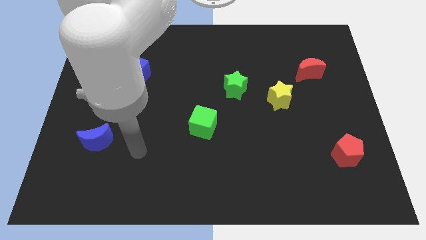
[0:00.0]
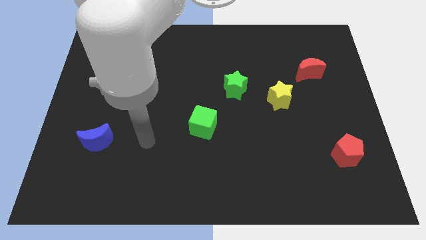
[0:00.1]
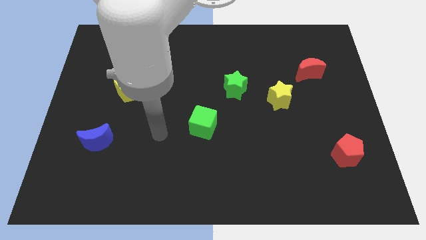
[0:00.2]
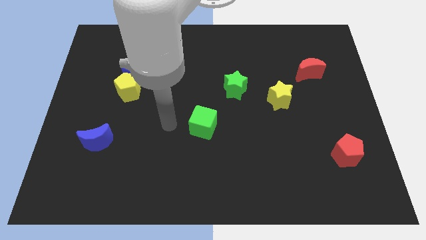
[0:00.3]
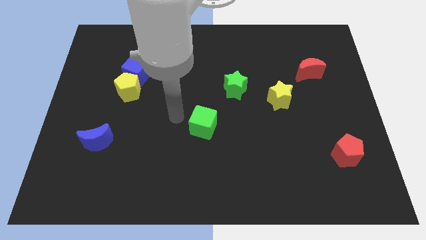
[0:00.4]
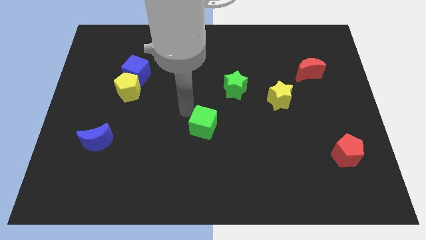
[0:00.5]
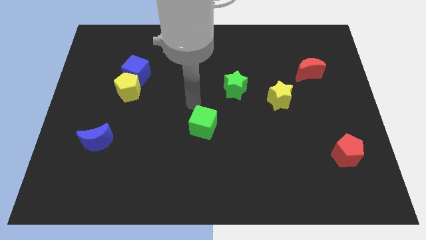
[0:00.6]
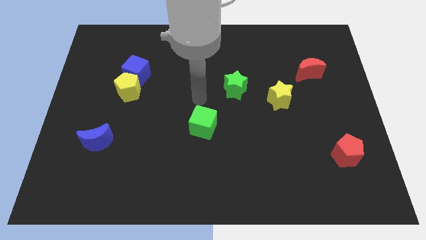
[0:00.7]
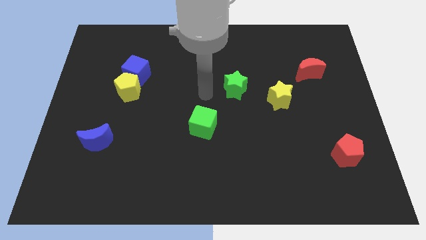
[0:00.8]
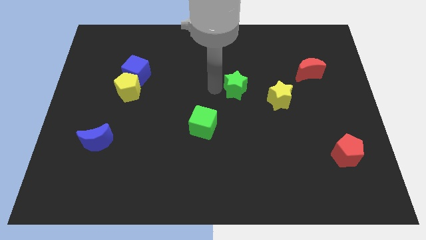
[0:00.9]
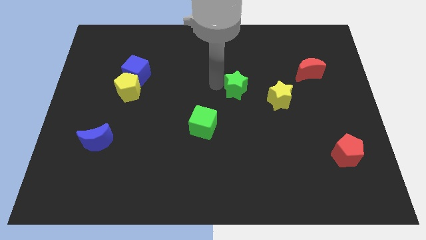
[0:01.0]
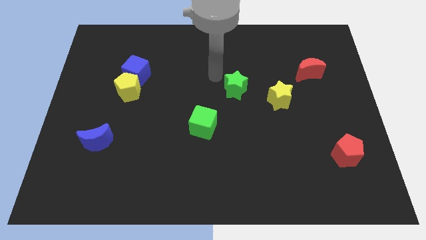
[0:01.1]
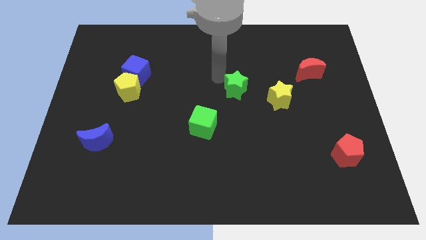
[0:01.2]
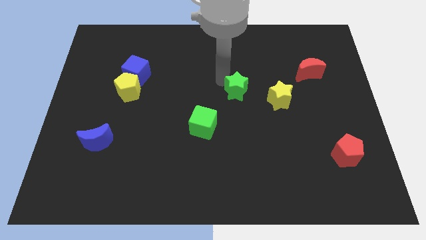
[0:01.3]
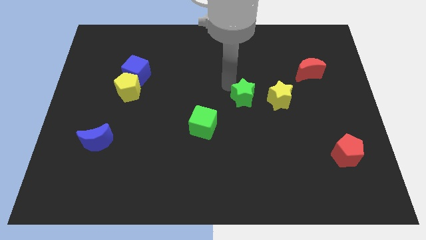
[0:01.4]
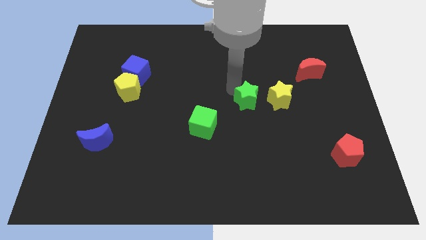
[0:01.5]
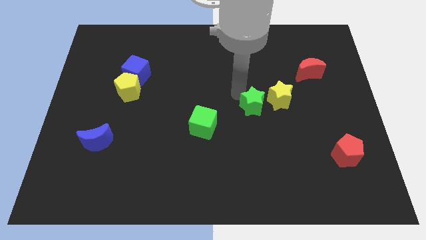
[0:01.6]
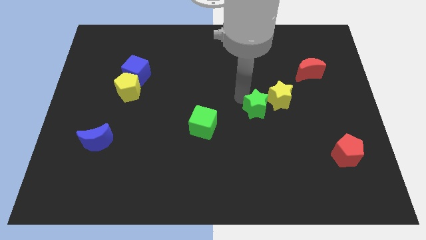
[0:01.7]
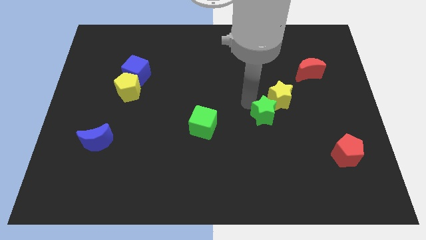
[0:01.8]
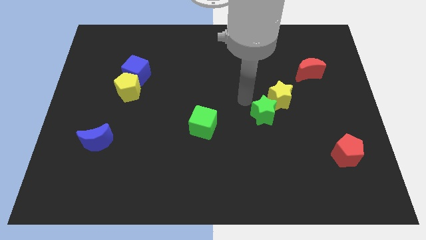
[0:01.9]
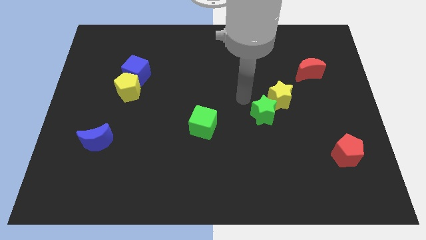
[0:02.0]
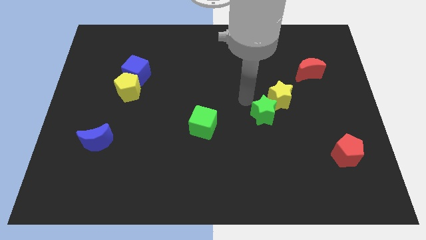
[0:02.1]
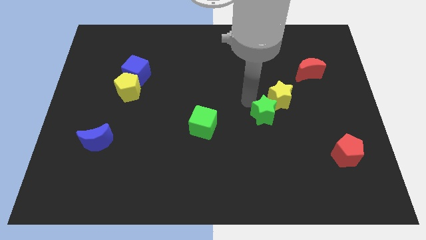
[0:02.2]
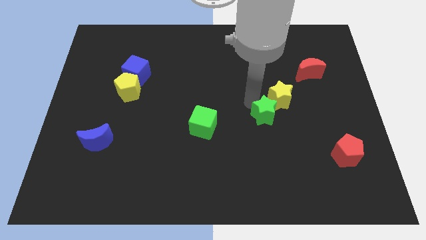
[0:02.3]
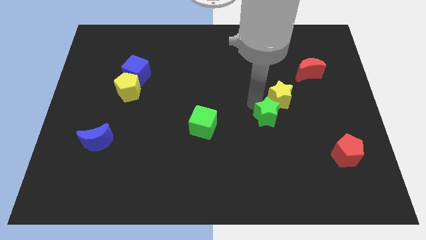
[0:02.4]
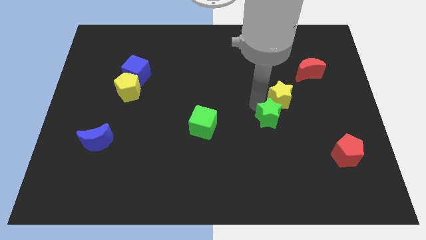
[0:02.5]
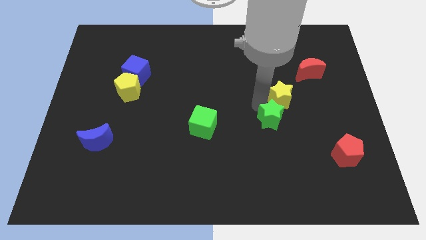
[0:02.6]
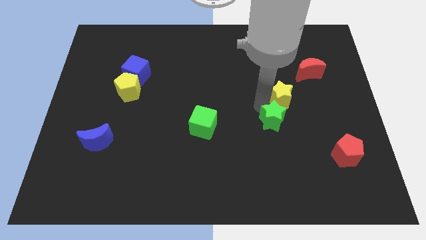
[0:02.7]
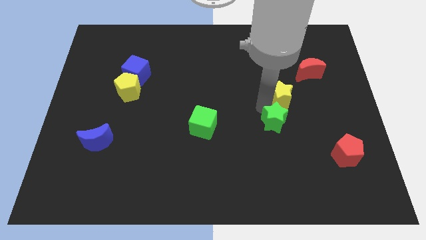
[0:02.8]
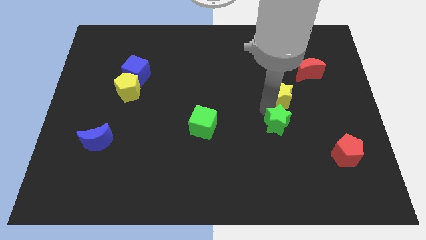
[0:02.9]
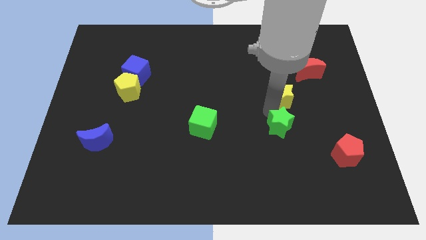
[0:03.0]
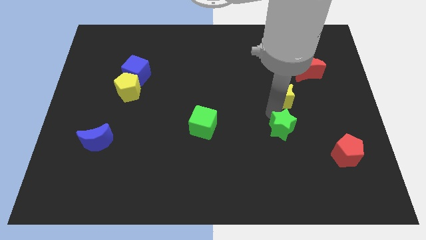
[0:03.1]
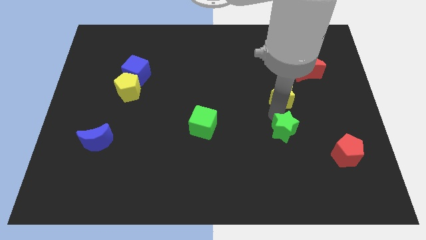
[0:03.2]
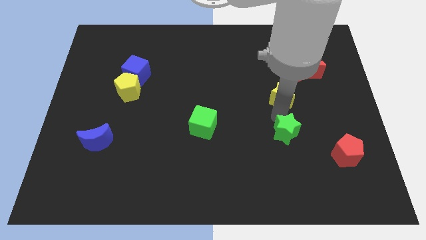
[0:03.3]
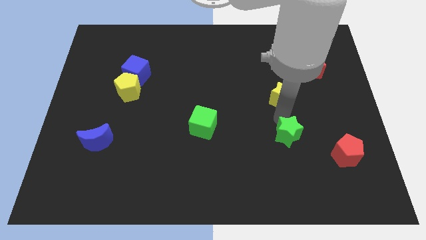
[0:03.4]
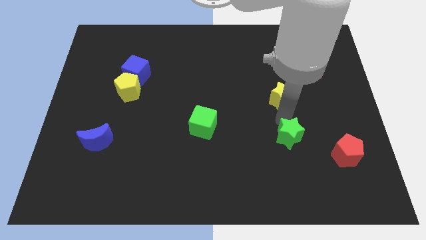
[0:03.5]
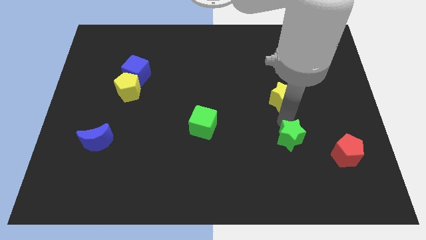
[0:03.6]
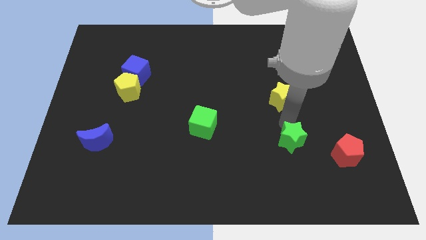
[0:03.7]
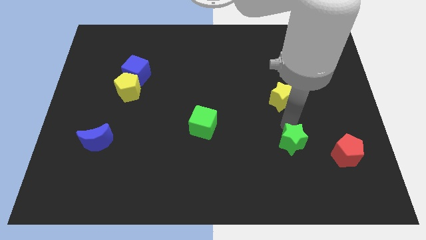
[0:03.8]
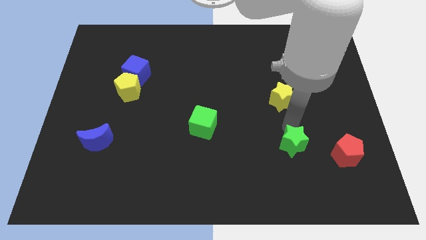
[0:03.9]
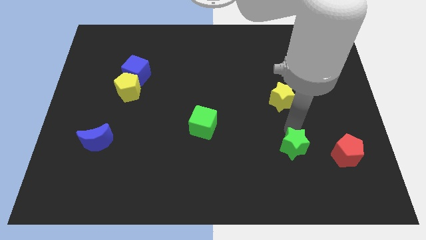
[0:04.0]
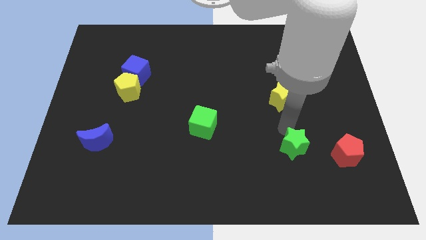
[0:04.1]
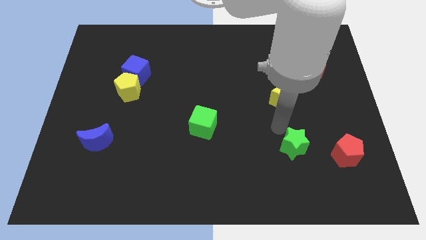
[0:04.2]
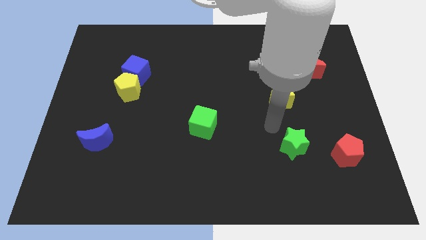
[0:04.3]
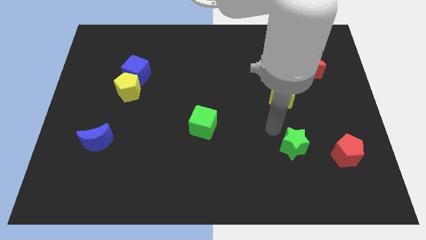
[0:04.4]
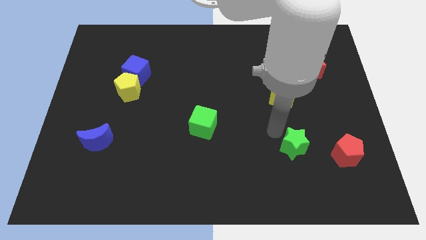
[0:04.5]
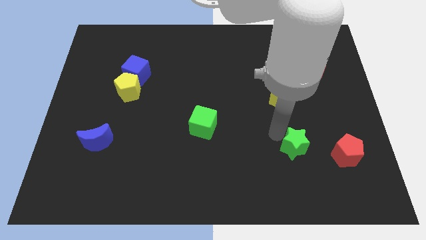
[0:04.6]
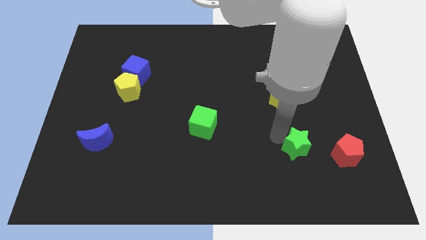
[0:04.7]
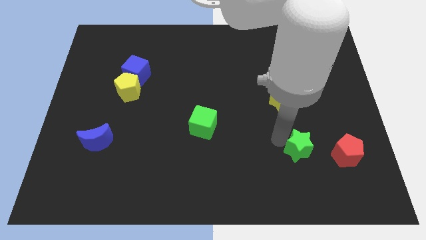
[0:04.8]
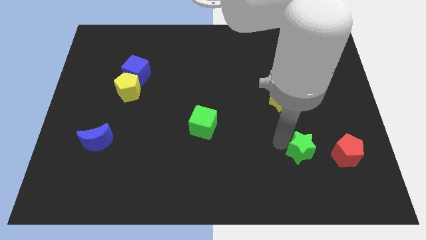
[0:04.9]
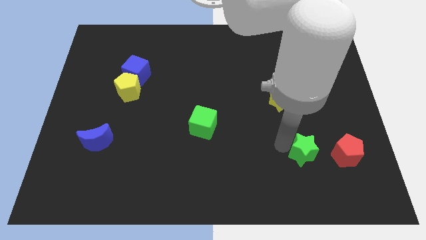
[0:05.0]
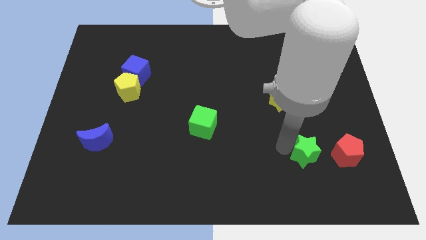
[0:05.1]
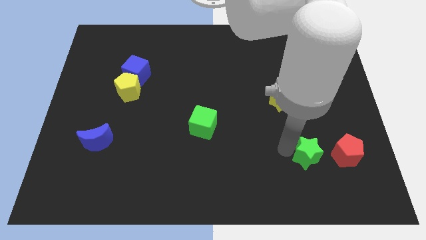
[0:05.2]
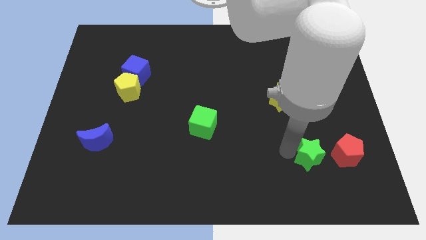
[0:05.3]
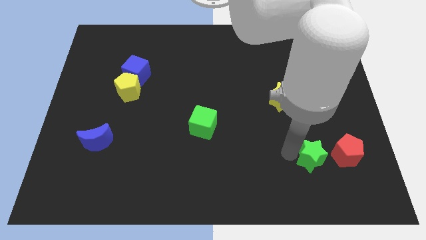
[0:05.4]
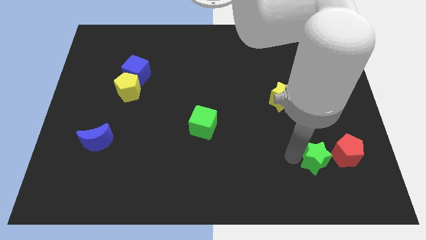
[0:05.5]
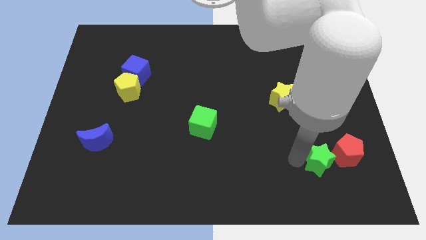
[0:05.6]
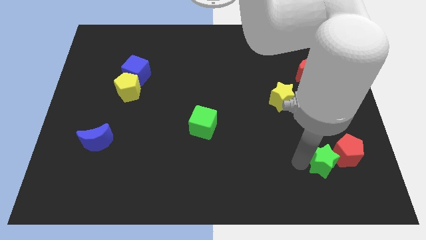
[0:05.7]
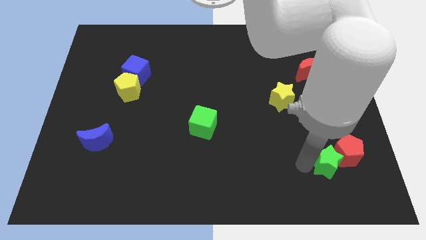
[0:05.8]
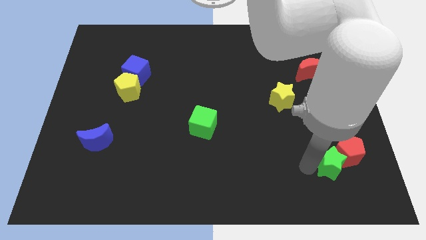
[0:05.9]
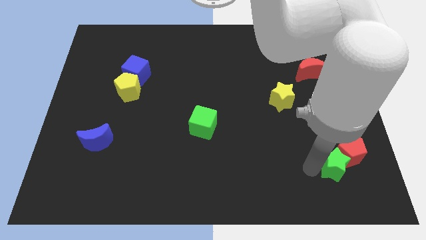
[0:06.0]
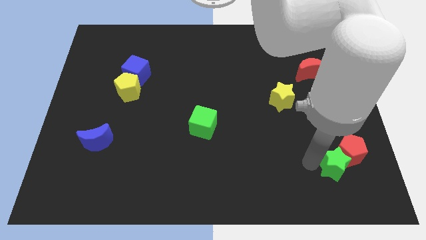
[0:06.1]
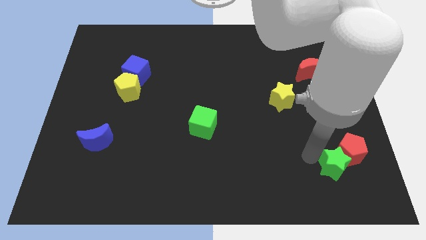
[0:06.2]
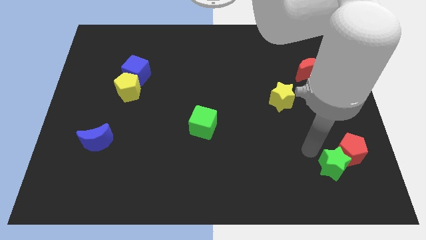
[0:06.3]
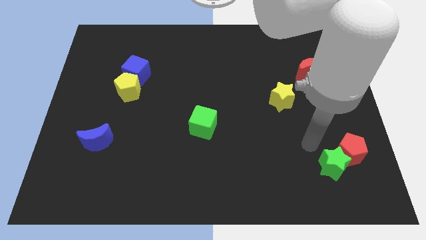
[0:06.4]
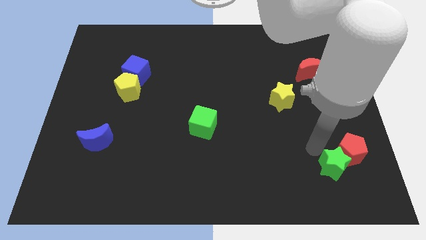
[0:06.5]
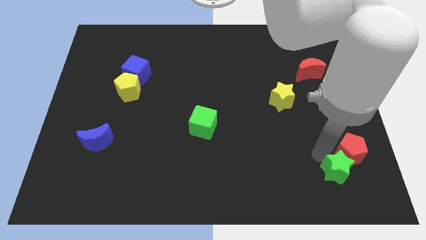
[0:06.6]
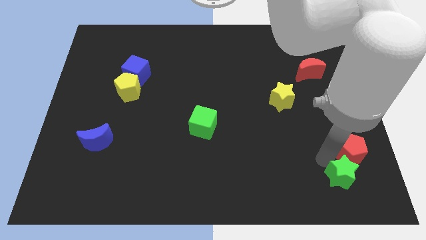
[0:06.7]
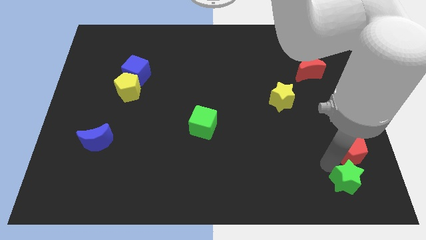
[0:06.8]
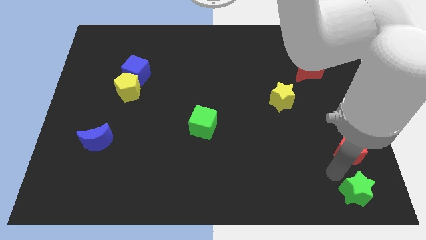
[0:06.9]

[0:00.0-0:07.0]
put the green star to the bottom right of the board

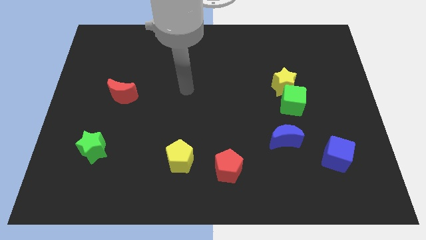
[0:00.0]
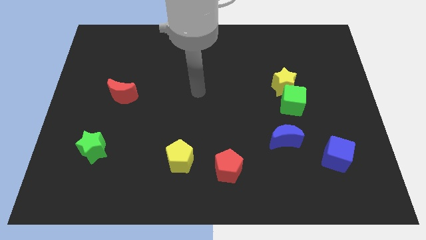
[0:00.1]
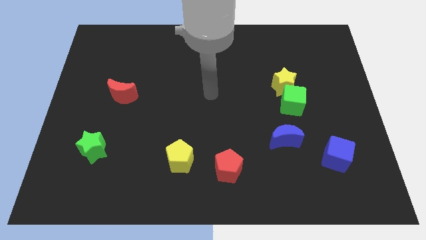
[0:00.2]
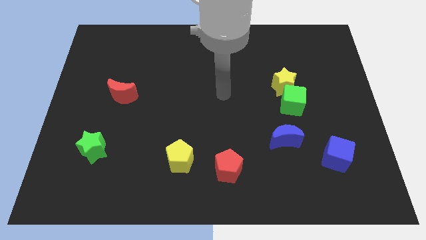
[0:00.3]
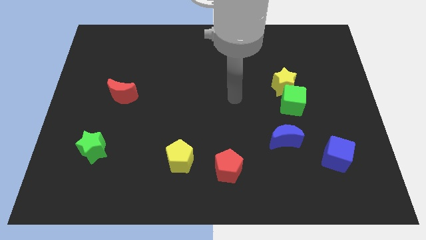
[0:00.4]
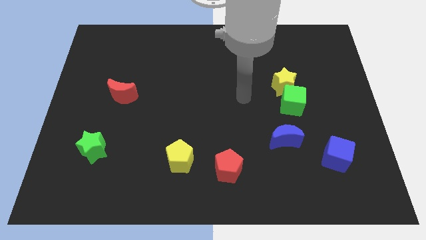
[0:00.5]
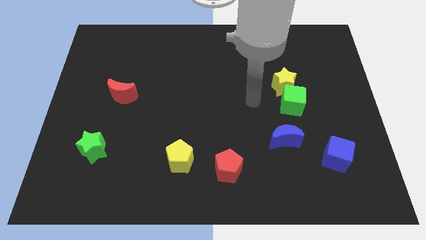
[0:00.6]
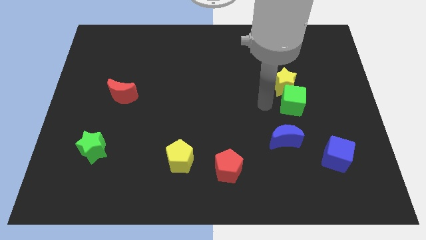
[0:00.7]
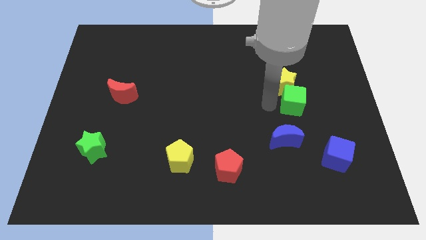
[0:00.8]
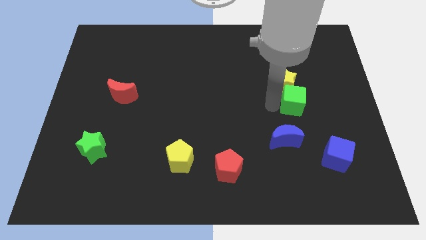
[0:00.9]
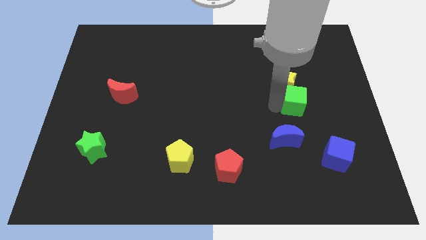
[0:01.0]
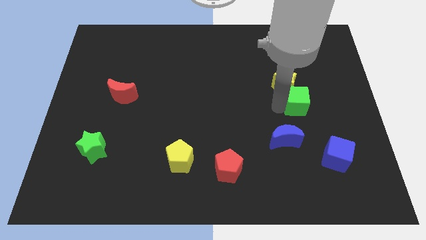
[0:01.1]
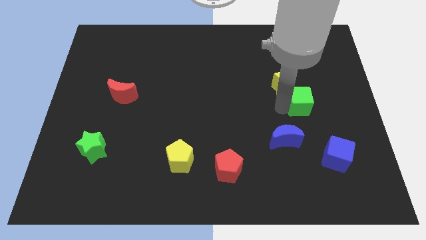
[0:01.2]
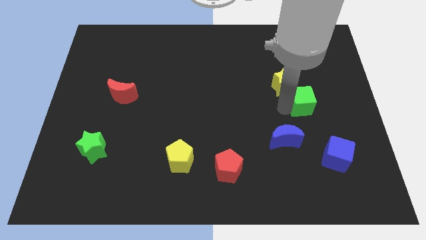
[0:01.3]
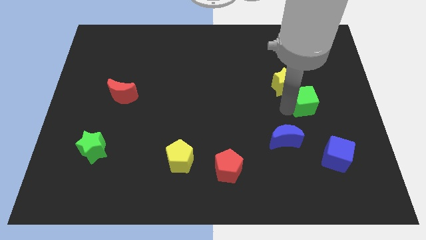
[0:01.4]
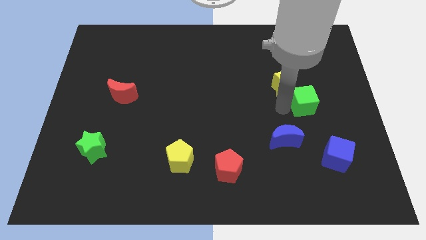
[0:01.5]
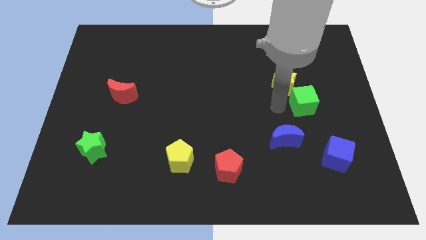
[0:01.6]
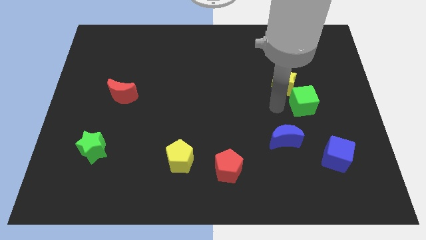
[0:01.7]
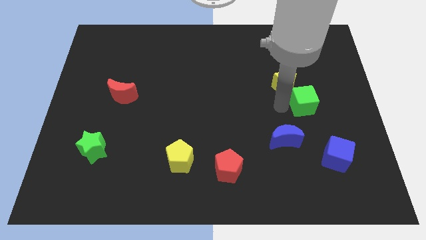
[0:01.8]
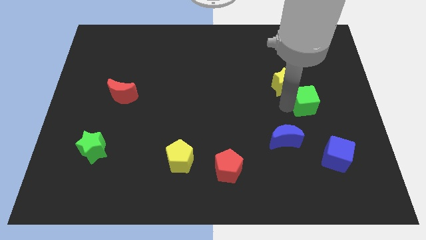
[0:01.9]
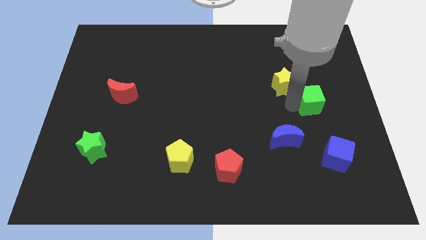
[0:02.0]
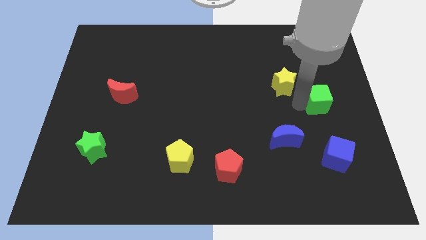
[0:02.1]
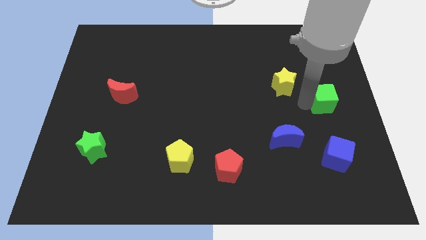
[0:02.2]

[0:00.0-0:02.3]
slide the green cube to the right side of the board
